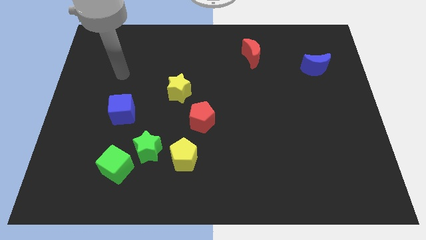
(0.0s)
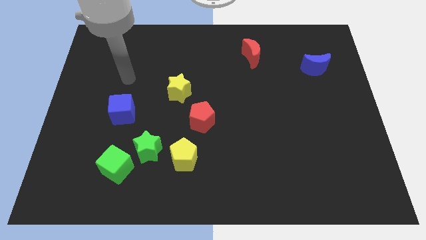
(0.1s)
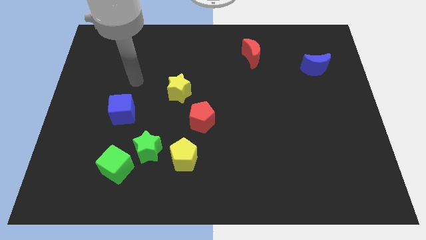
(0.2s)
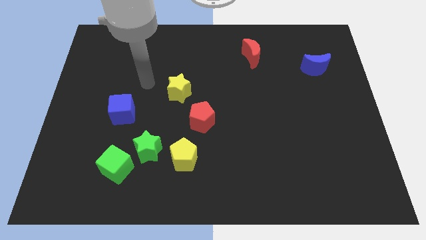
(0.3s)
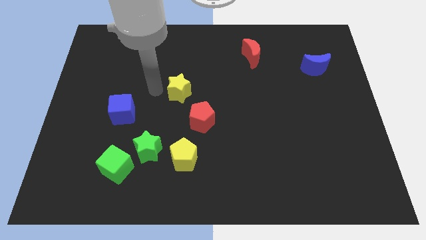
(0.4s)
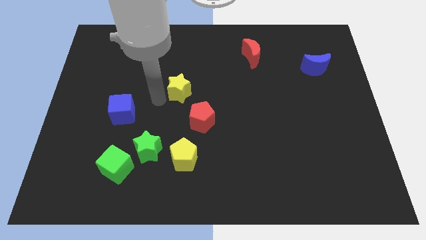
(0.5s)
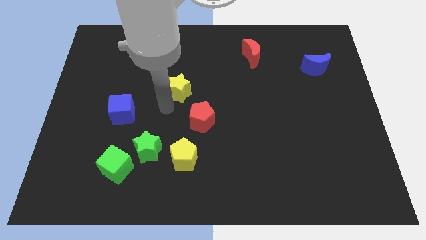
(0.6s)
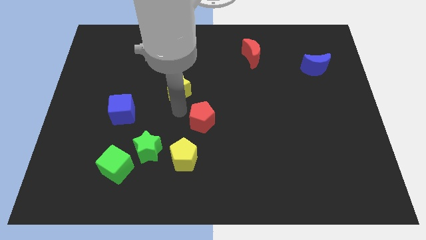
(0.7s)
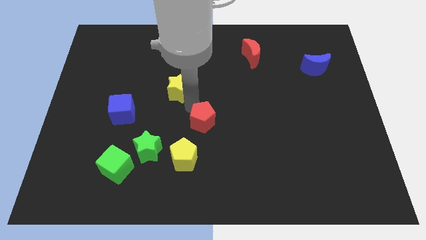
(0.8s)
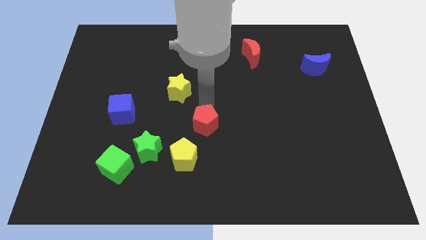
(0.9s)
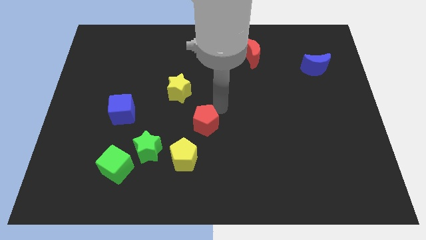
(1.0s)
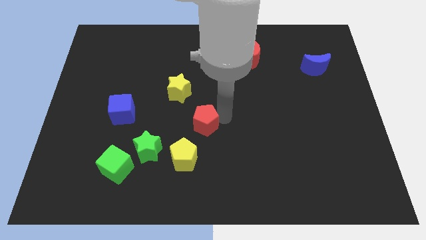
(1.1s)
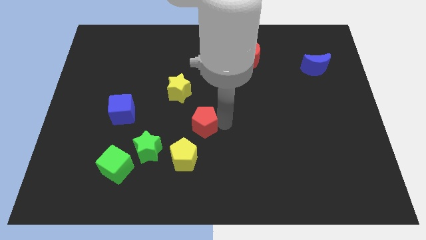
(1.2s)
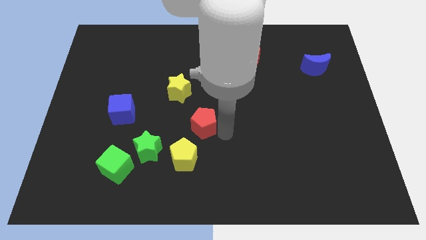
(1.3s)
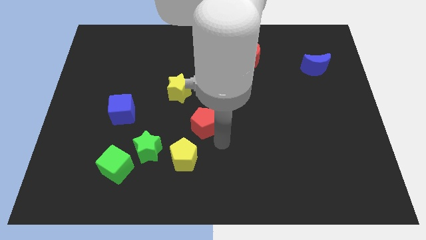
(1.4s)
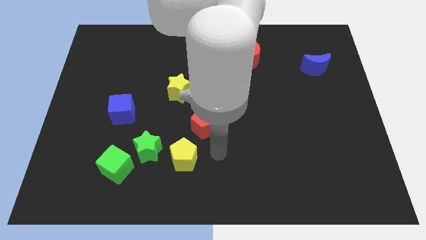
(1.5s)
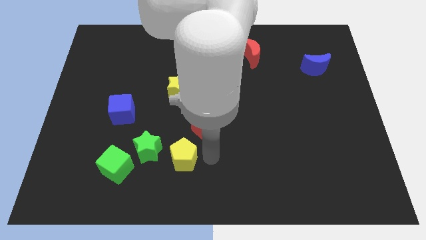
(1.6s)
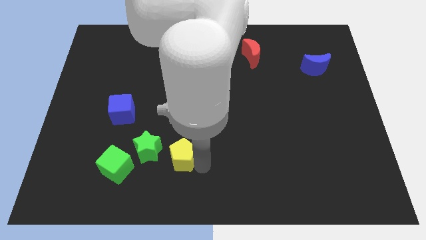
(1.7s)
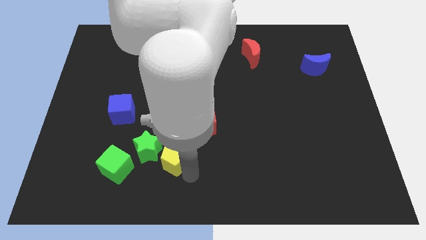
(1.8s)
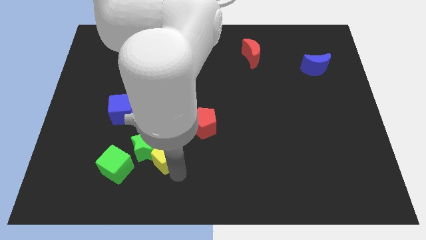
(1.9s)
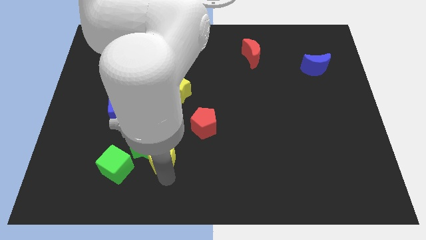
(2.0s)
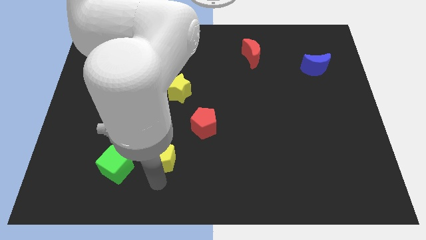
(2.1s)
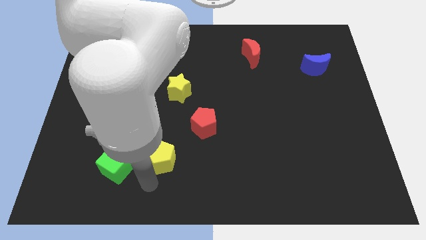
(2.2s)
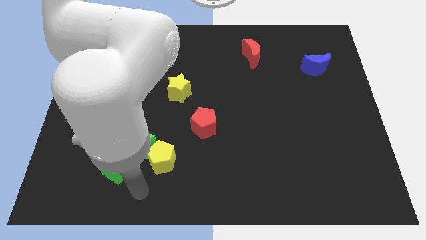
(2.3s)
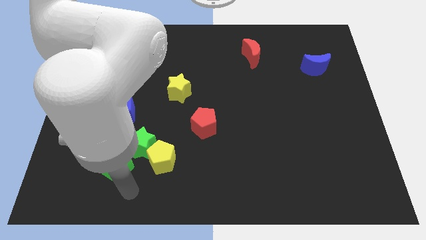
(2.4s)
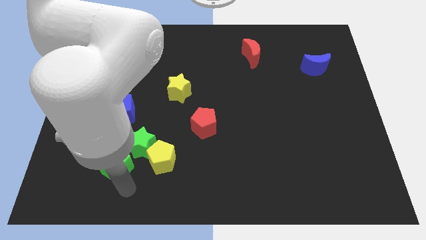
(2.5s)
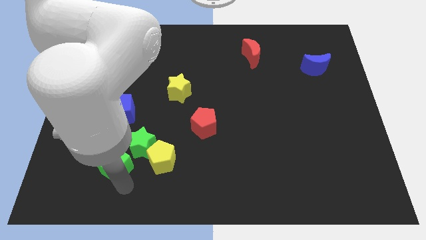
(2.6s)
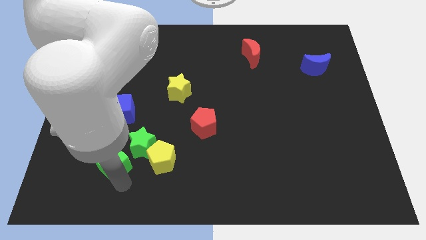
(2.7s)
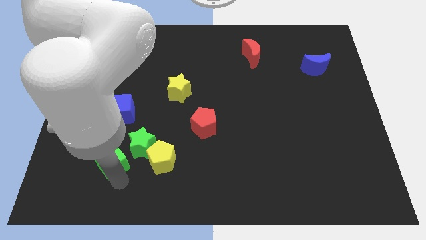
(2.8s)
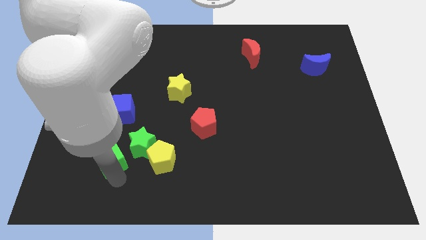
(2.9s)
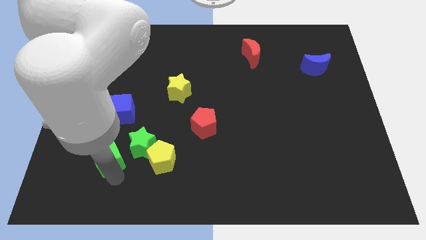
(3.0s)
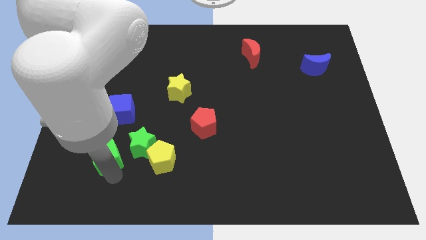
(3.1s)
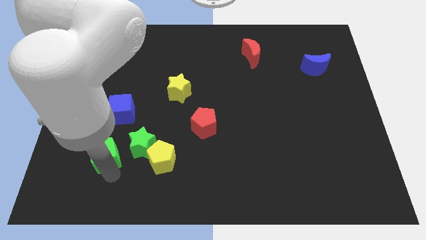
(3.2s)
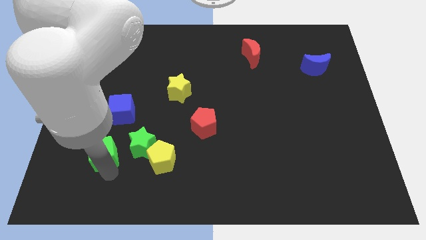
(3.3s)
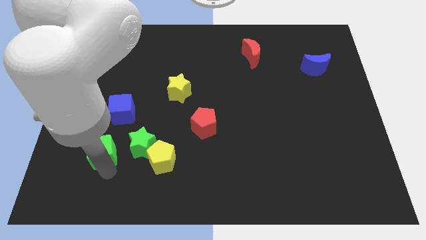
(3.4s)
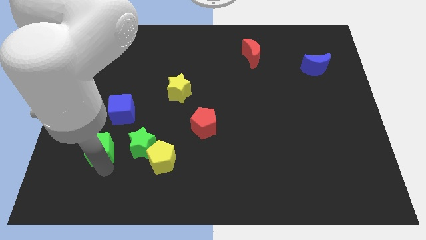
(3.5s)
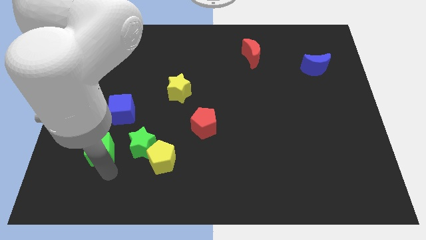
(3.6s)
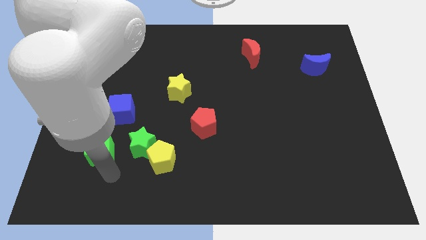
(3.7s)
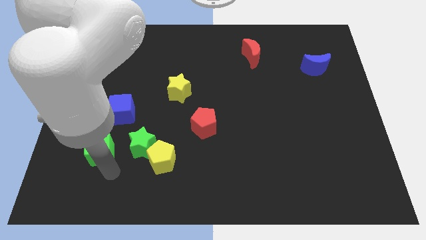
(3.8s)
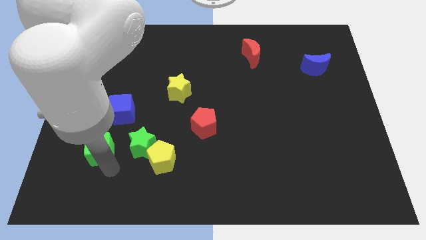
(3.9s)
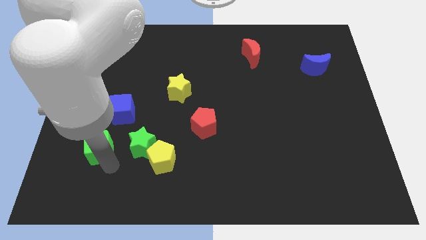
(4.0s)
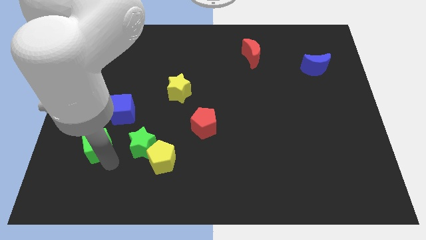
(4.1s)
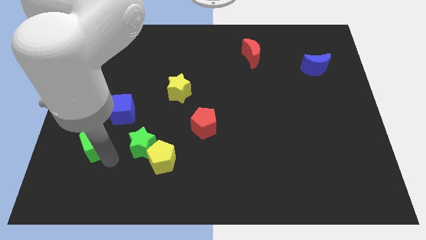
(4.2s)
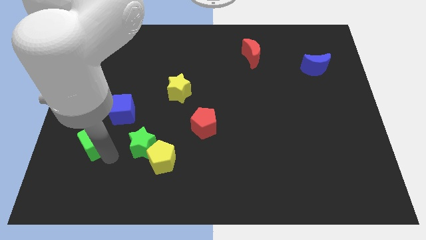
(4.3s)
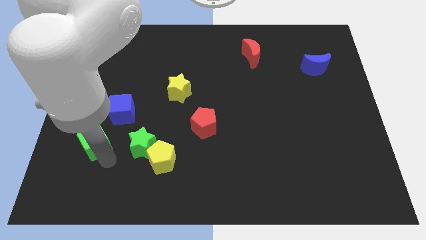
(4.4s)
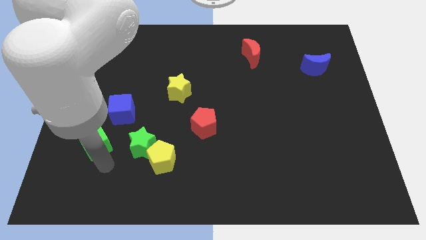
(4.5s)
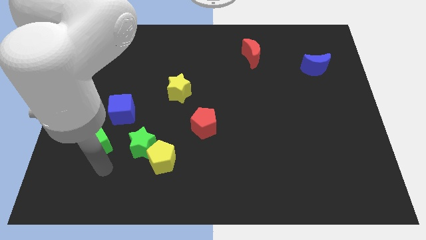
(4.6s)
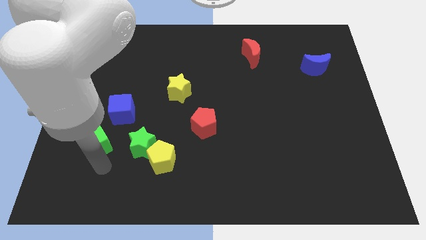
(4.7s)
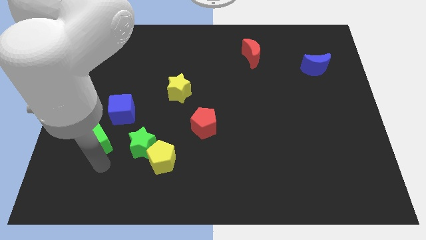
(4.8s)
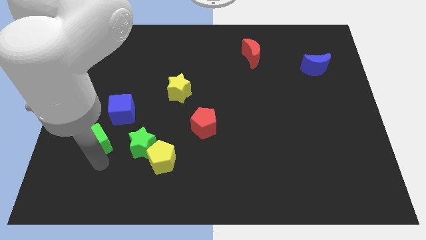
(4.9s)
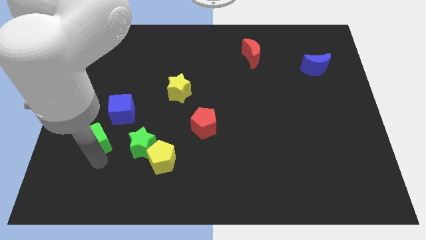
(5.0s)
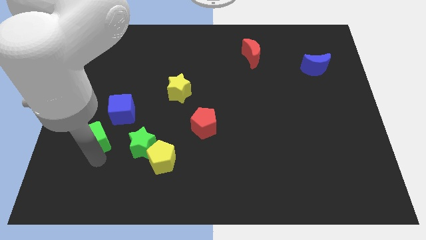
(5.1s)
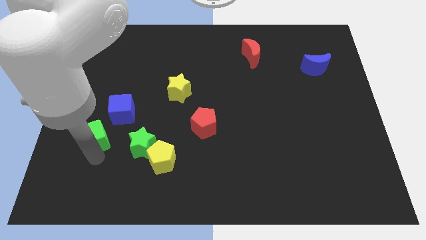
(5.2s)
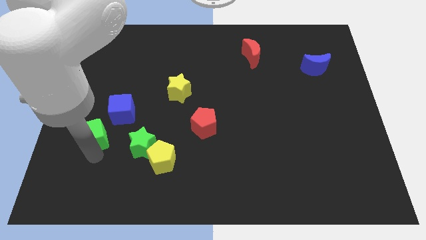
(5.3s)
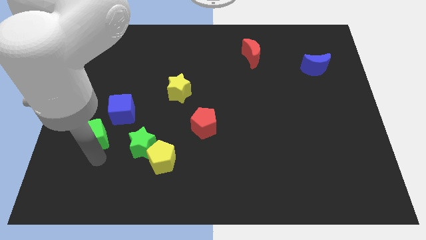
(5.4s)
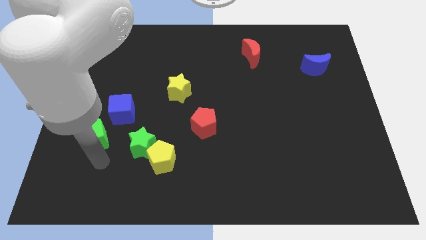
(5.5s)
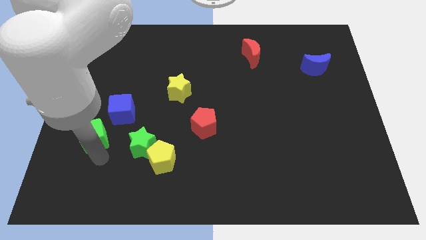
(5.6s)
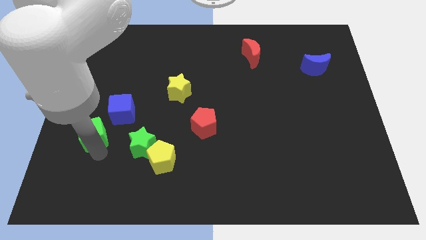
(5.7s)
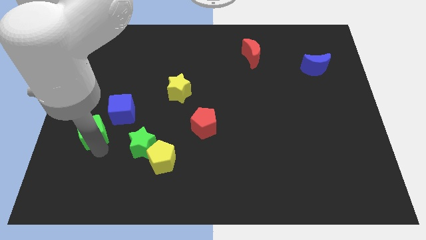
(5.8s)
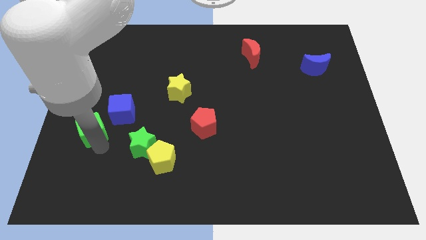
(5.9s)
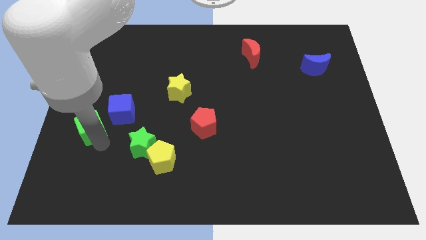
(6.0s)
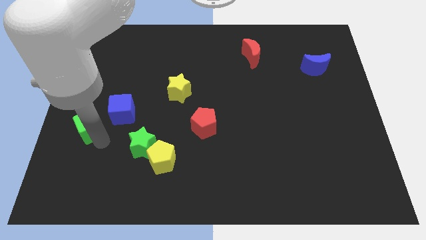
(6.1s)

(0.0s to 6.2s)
move the green cube to the left side

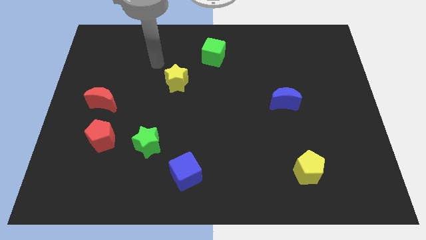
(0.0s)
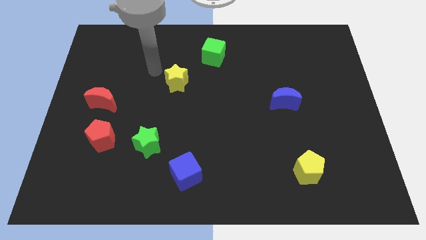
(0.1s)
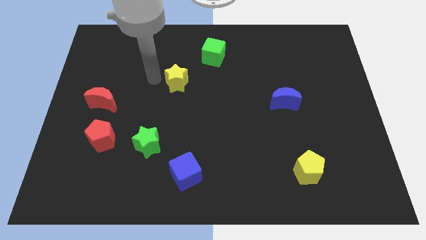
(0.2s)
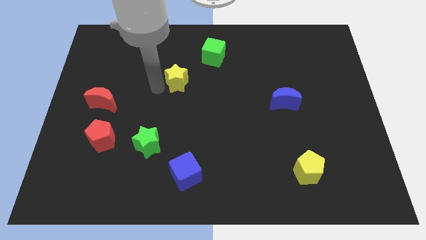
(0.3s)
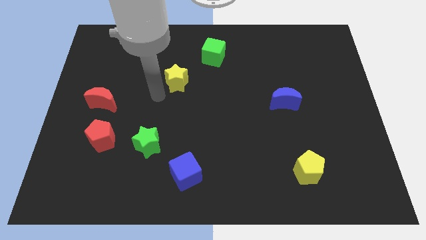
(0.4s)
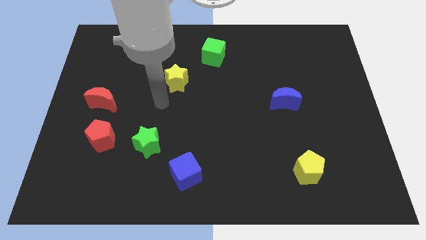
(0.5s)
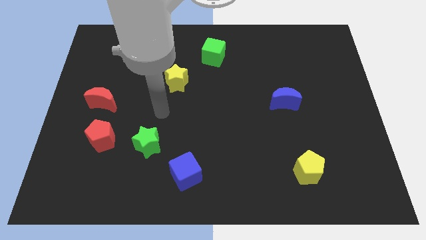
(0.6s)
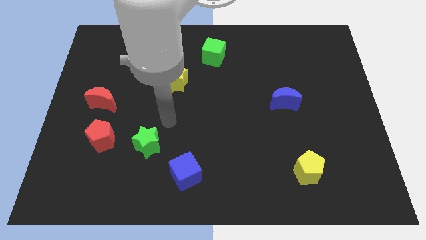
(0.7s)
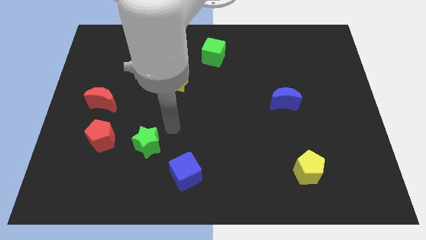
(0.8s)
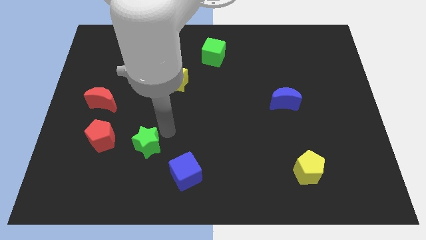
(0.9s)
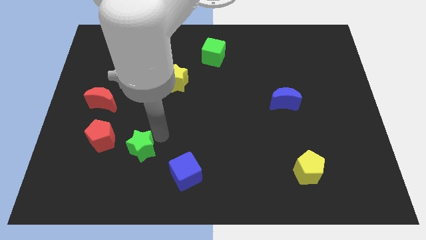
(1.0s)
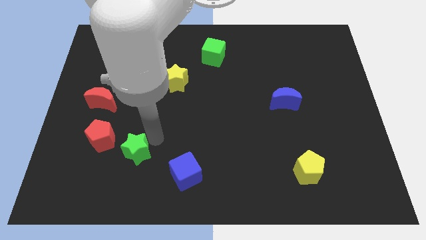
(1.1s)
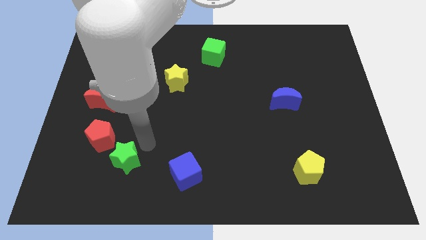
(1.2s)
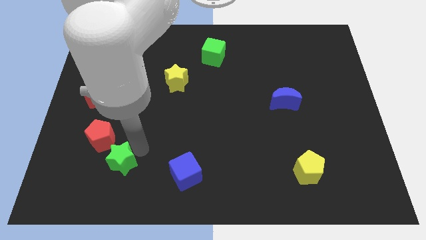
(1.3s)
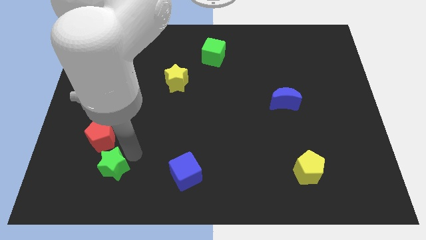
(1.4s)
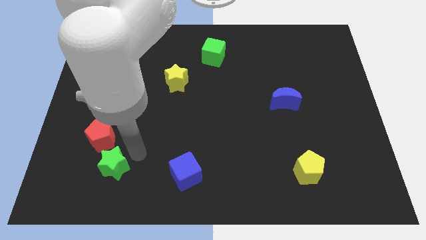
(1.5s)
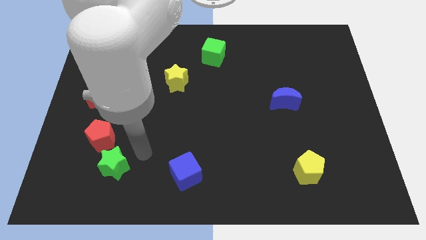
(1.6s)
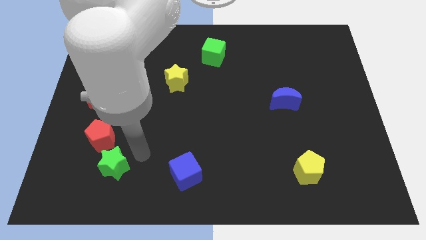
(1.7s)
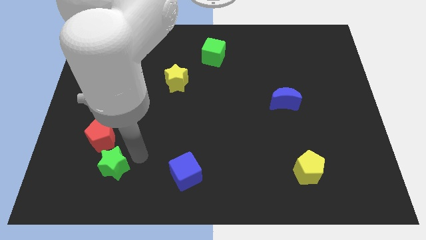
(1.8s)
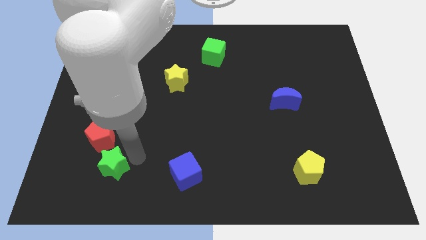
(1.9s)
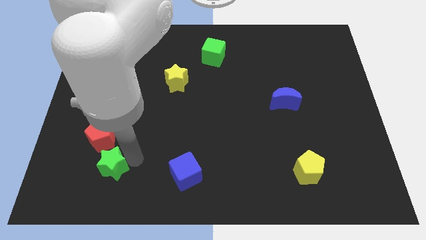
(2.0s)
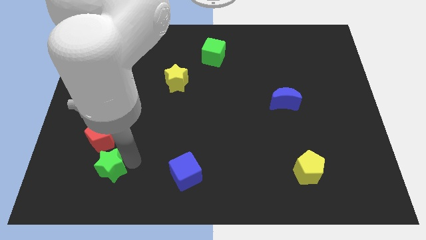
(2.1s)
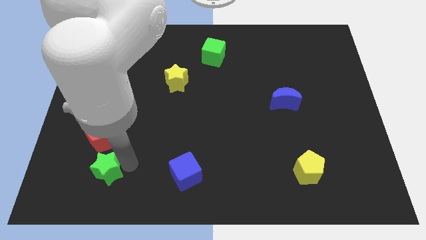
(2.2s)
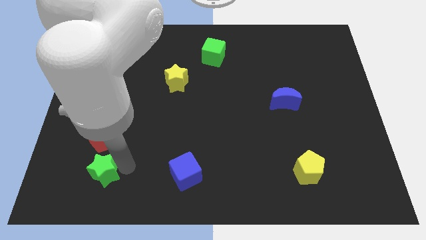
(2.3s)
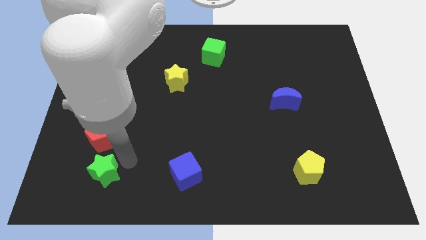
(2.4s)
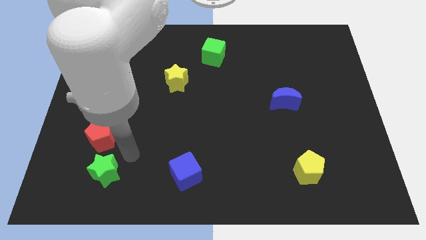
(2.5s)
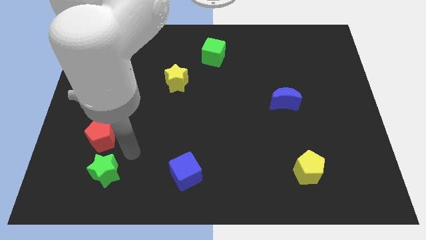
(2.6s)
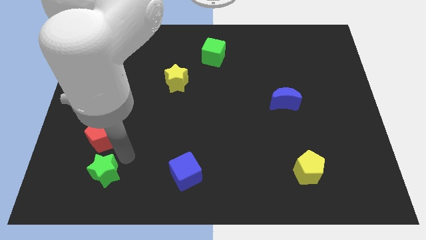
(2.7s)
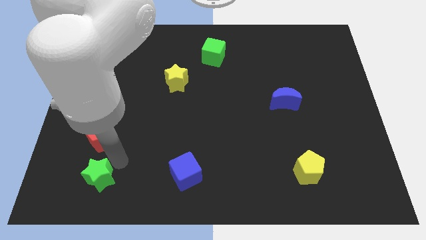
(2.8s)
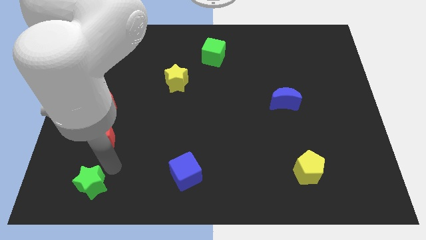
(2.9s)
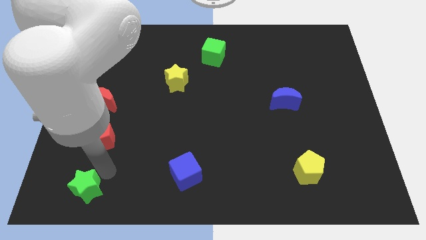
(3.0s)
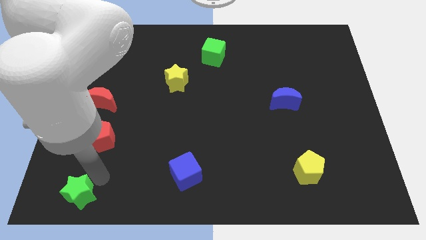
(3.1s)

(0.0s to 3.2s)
move the green star to the bottom left of the board
